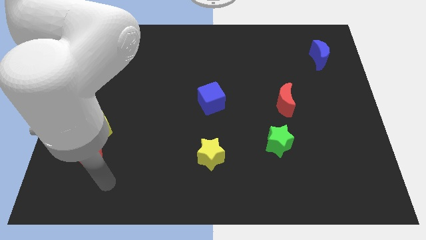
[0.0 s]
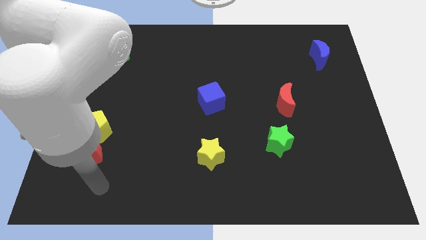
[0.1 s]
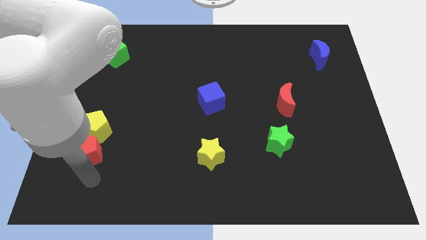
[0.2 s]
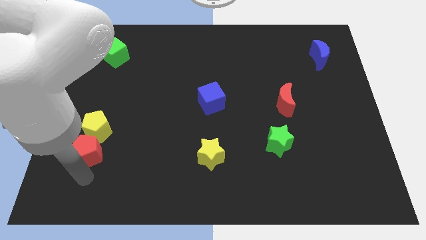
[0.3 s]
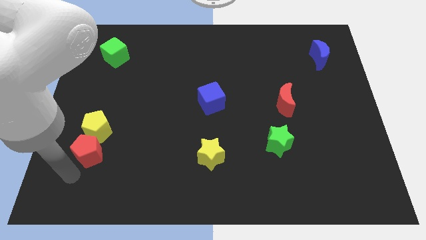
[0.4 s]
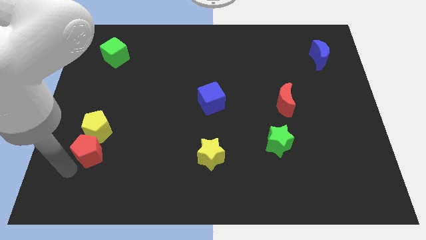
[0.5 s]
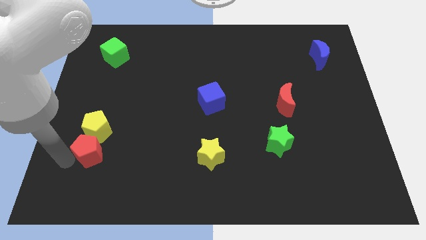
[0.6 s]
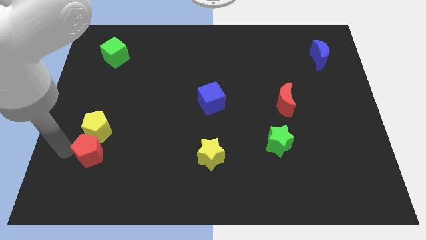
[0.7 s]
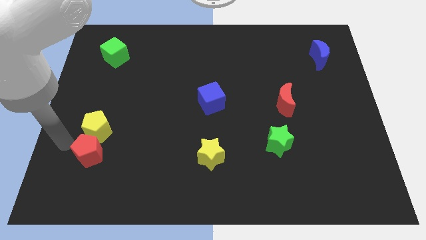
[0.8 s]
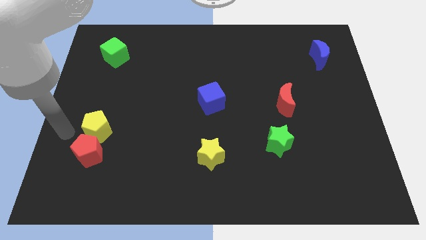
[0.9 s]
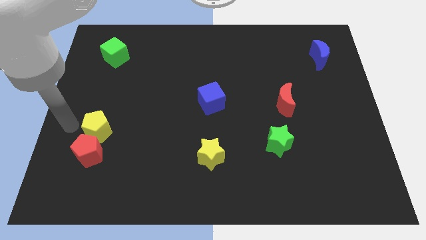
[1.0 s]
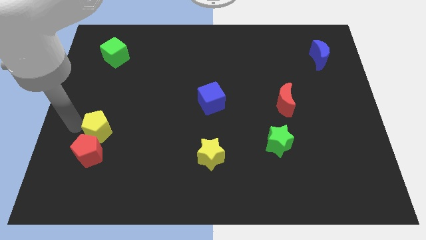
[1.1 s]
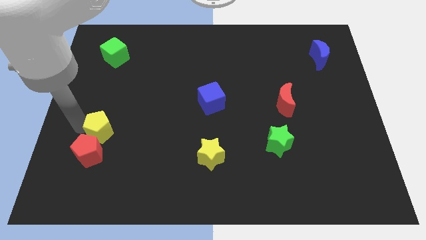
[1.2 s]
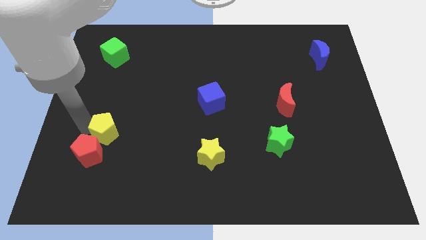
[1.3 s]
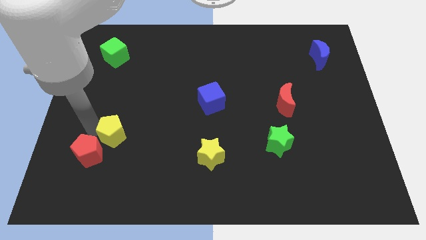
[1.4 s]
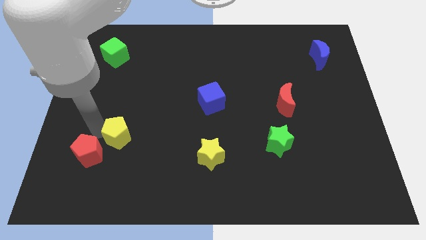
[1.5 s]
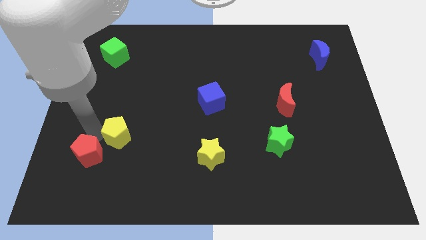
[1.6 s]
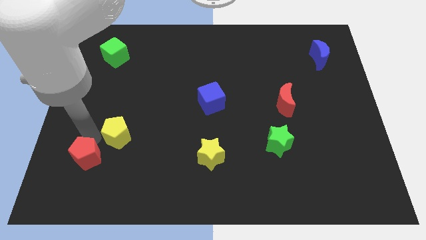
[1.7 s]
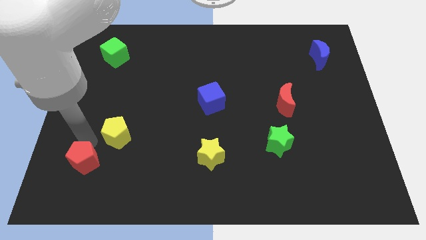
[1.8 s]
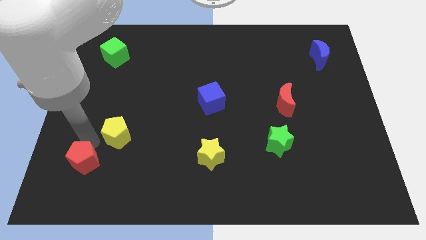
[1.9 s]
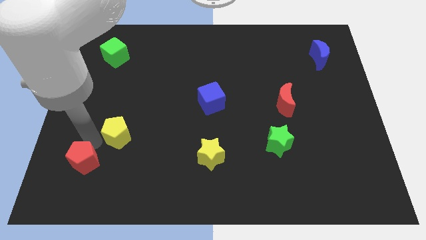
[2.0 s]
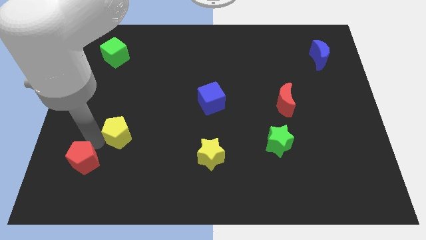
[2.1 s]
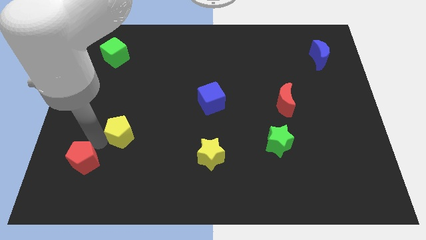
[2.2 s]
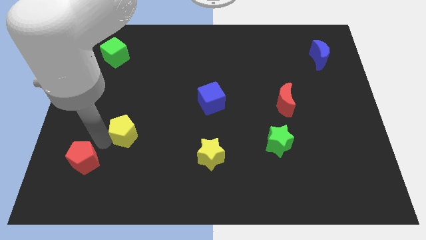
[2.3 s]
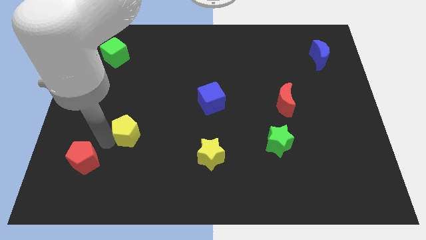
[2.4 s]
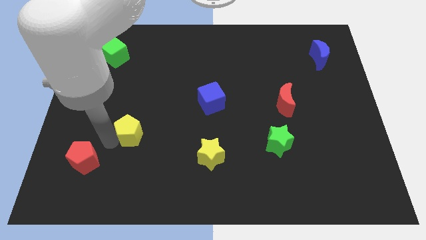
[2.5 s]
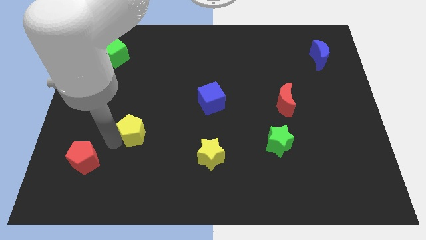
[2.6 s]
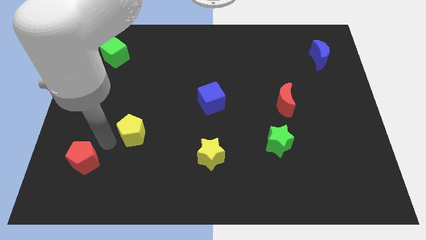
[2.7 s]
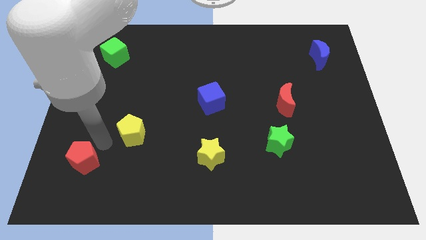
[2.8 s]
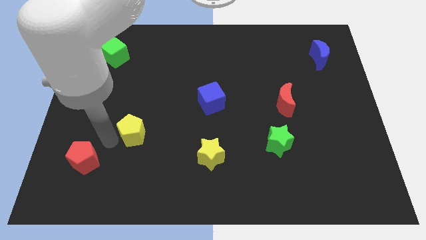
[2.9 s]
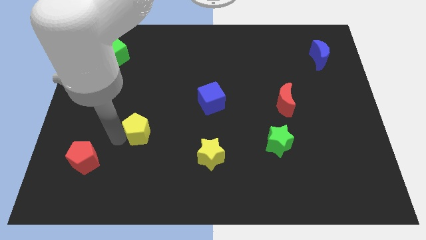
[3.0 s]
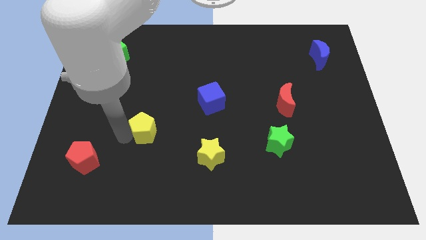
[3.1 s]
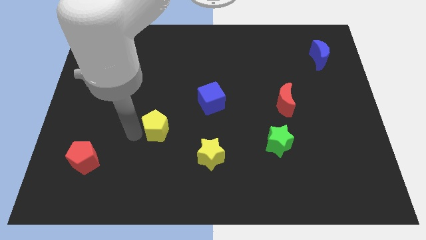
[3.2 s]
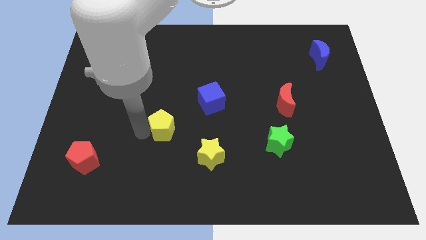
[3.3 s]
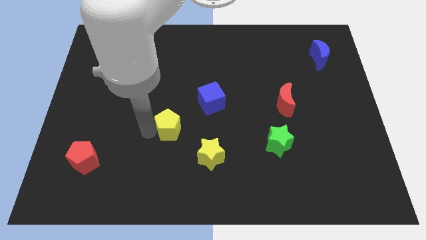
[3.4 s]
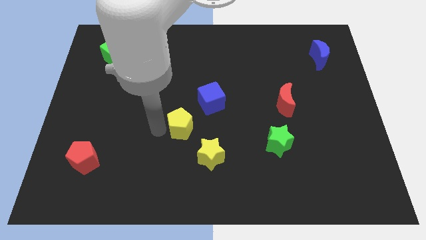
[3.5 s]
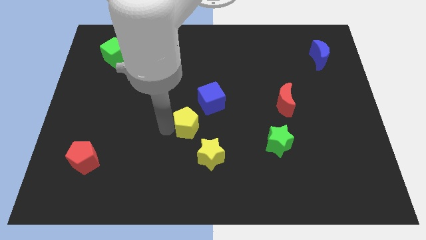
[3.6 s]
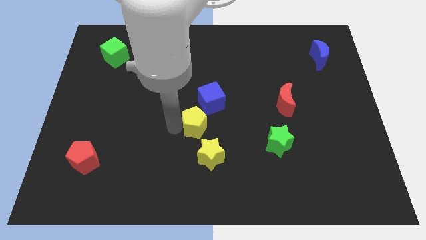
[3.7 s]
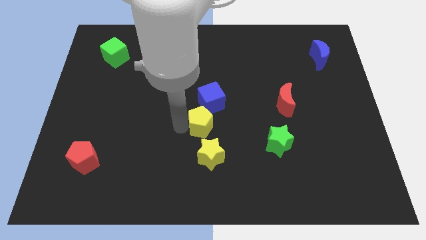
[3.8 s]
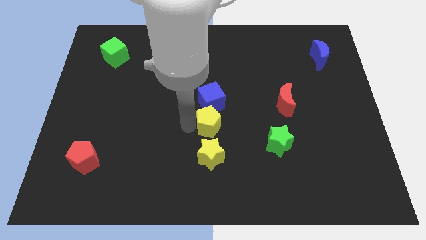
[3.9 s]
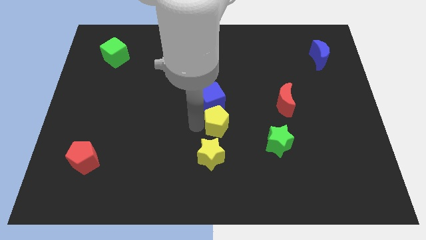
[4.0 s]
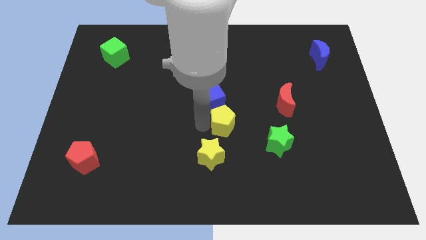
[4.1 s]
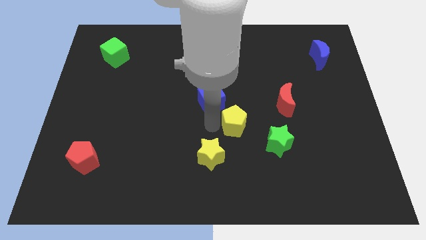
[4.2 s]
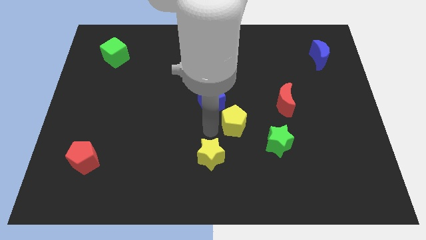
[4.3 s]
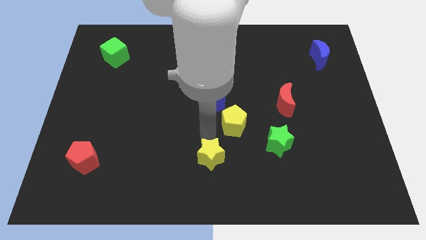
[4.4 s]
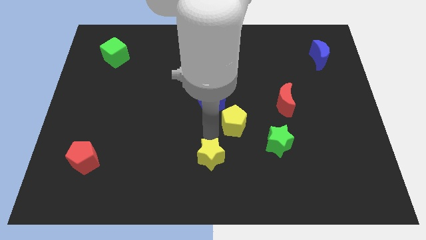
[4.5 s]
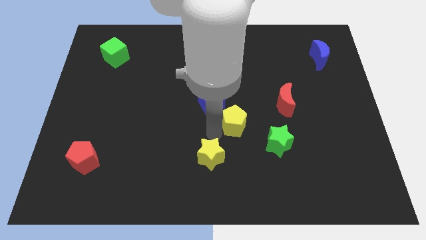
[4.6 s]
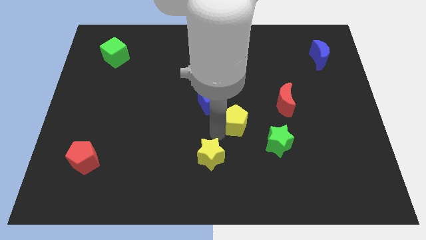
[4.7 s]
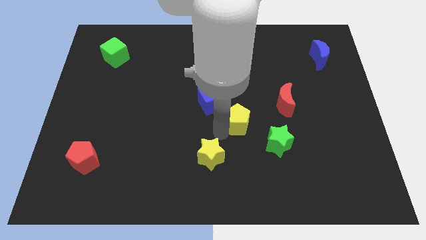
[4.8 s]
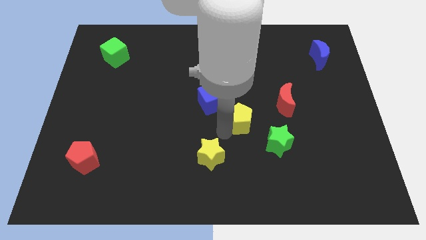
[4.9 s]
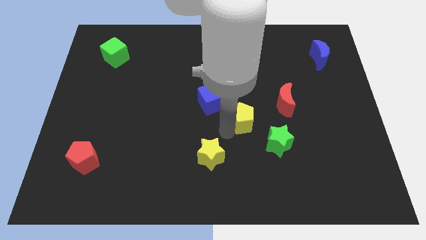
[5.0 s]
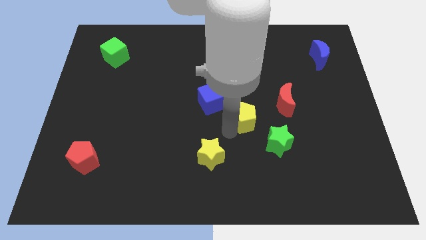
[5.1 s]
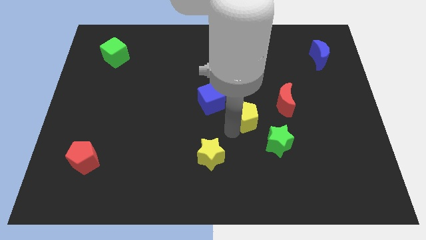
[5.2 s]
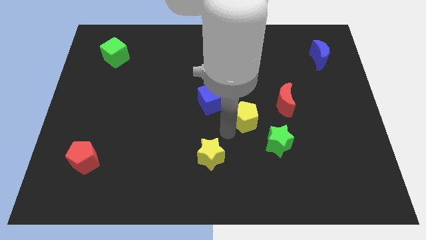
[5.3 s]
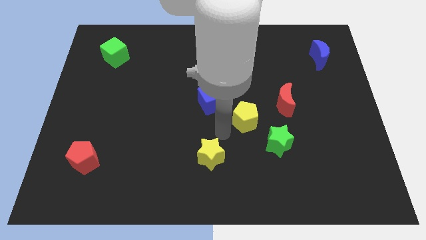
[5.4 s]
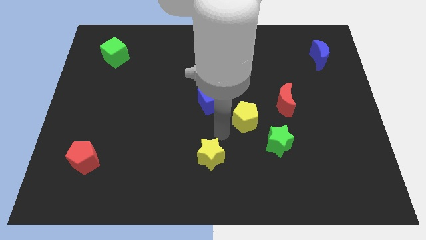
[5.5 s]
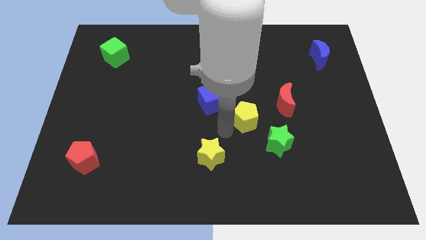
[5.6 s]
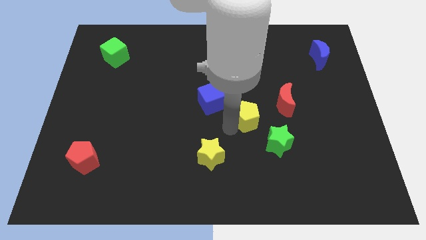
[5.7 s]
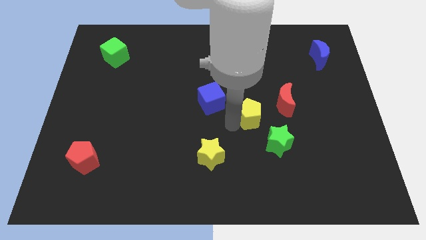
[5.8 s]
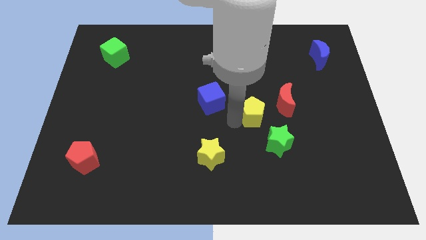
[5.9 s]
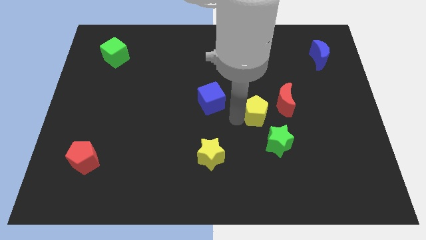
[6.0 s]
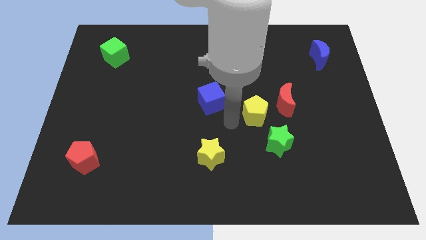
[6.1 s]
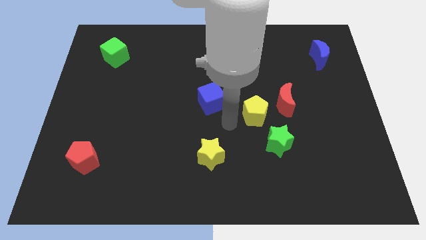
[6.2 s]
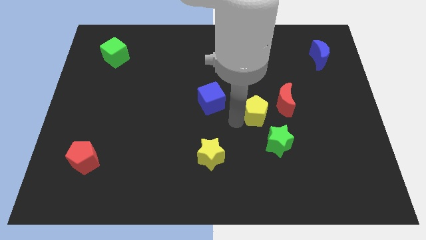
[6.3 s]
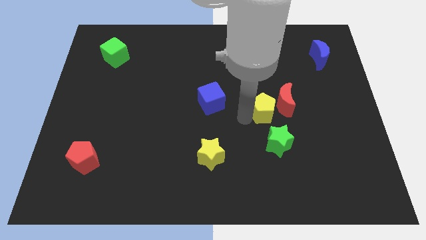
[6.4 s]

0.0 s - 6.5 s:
push the yellow pentagon towards the red moon
